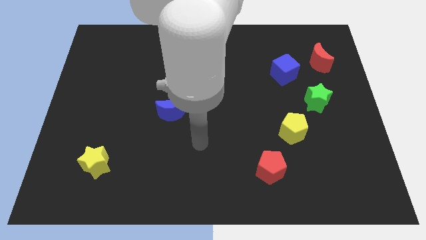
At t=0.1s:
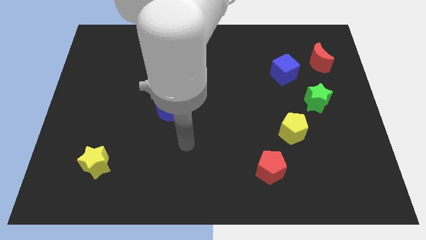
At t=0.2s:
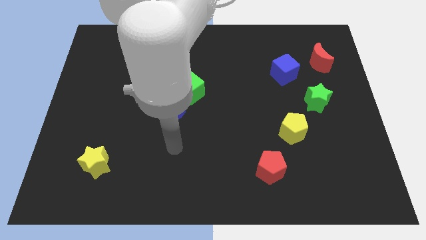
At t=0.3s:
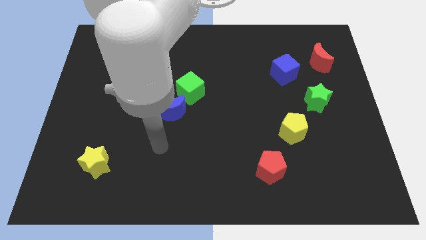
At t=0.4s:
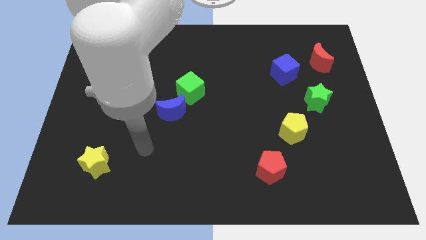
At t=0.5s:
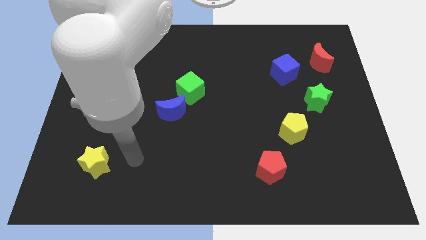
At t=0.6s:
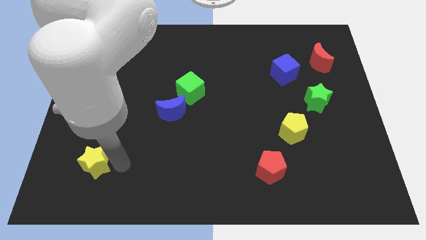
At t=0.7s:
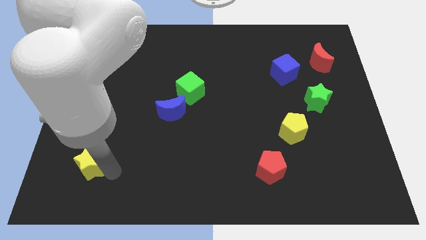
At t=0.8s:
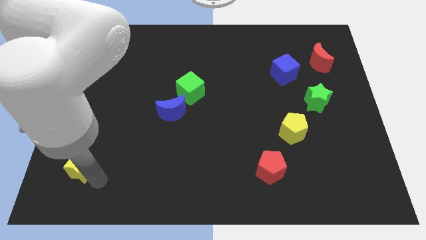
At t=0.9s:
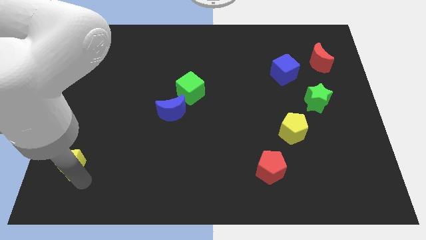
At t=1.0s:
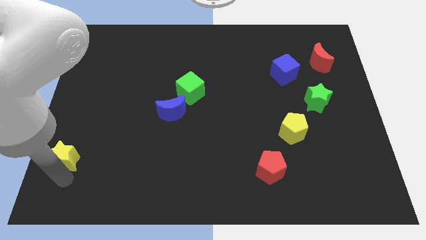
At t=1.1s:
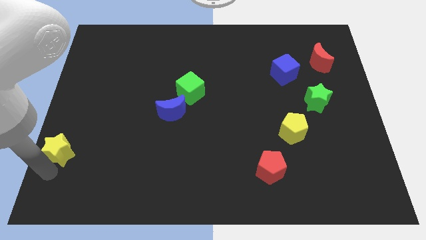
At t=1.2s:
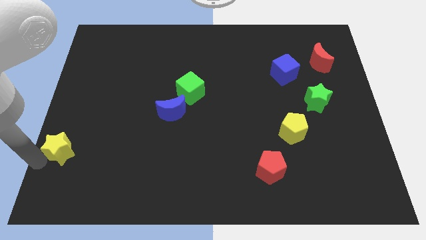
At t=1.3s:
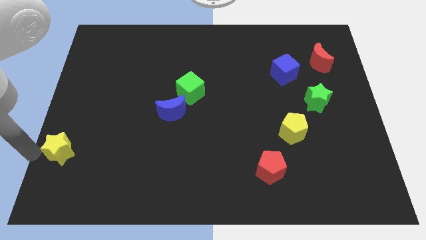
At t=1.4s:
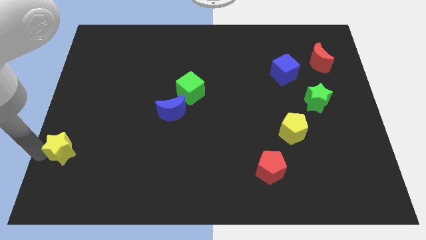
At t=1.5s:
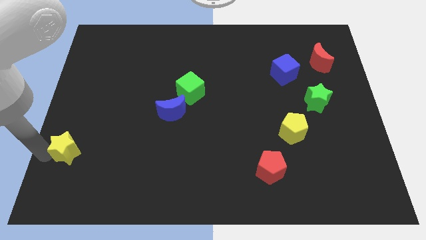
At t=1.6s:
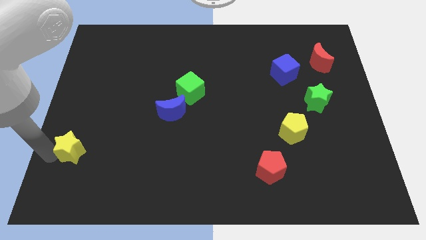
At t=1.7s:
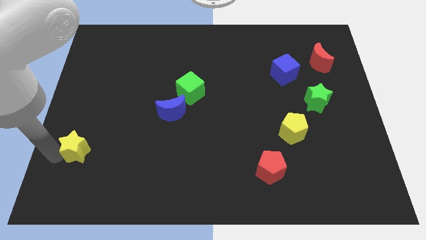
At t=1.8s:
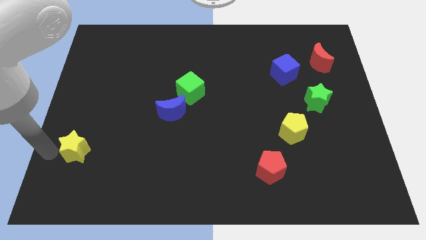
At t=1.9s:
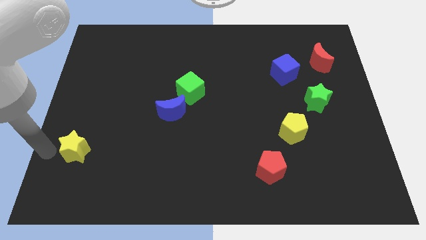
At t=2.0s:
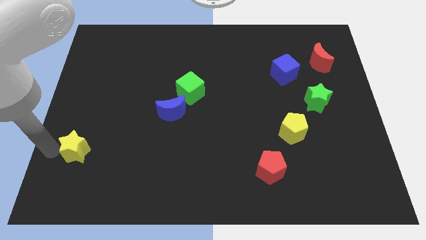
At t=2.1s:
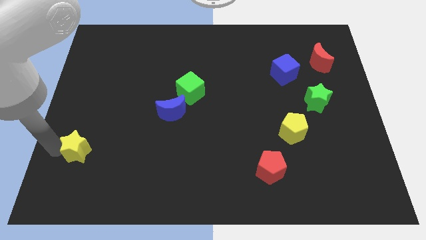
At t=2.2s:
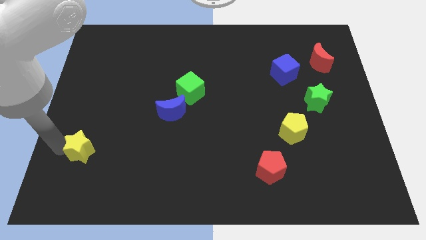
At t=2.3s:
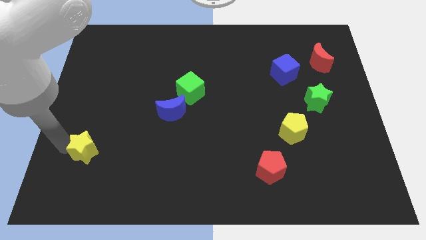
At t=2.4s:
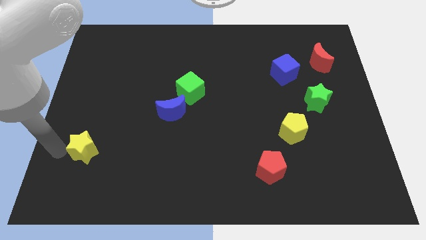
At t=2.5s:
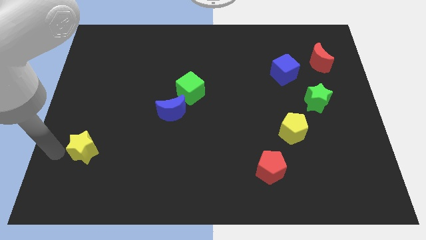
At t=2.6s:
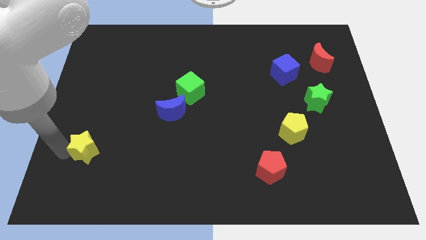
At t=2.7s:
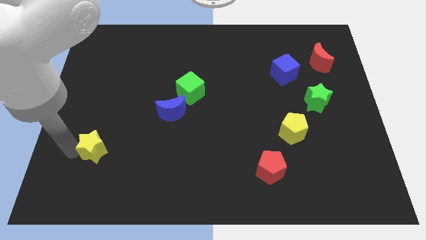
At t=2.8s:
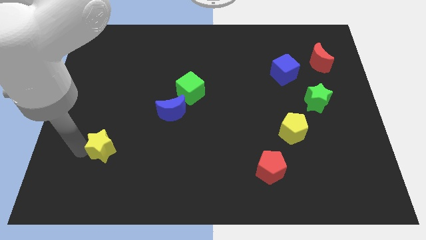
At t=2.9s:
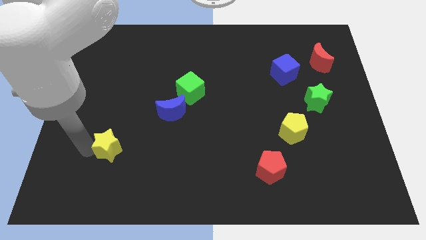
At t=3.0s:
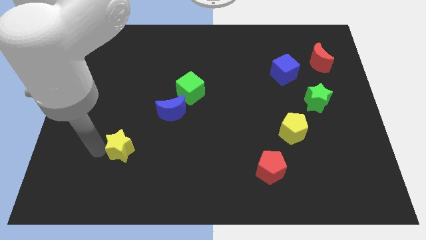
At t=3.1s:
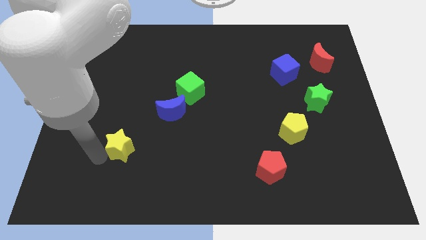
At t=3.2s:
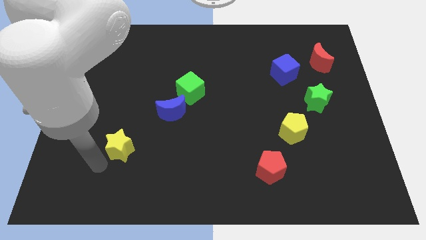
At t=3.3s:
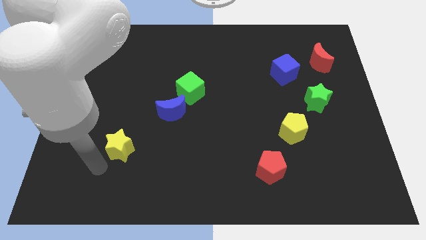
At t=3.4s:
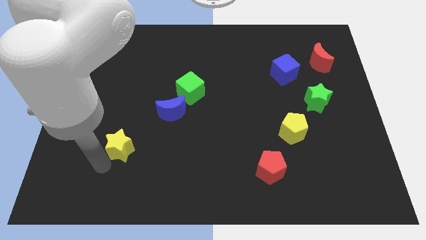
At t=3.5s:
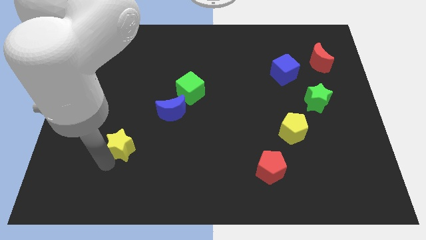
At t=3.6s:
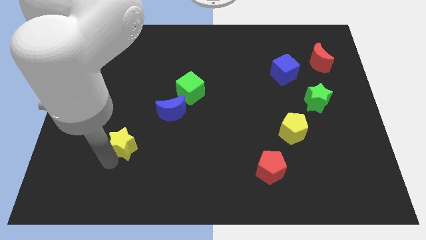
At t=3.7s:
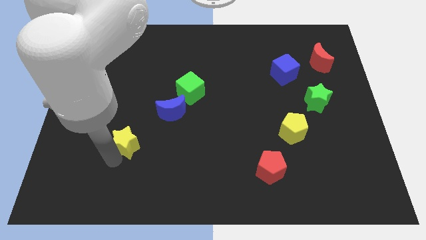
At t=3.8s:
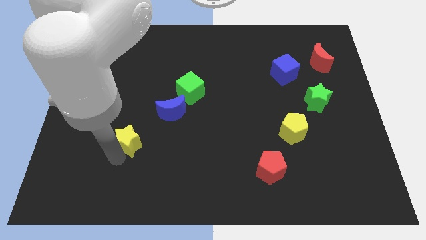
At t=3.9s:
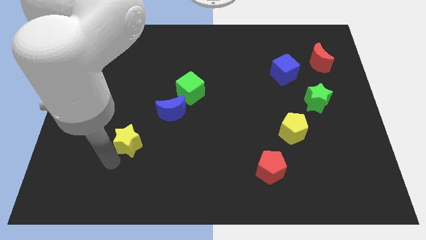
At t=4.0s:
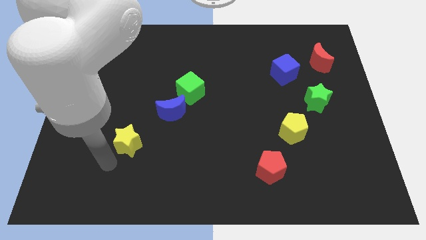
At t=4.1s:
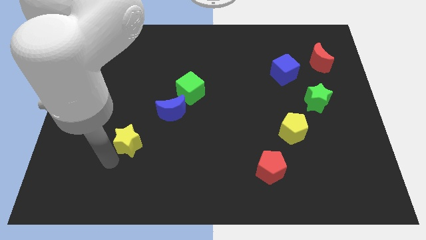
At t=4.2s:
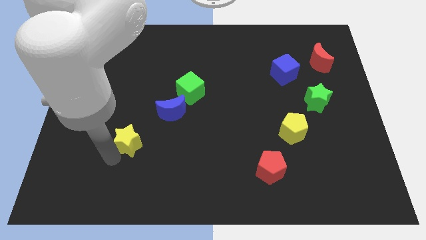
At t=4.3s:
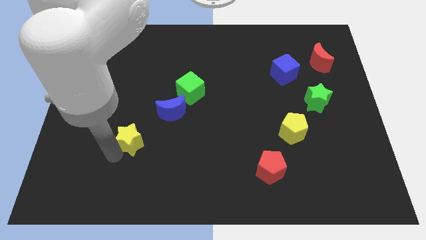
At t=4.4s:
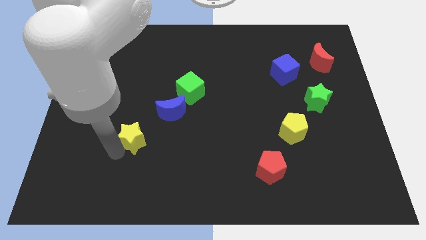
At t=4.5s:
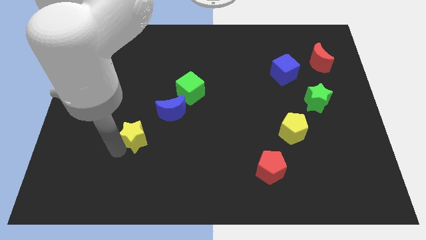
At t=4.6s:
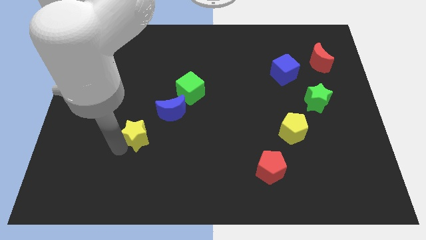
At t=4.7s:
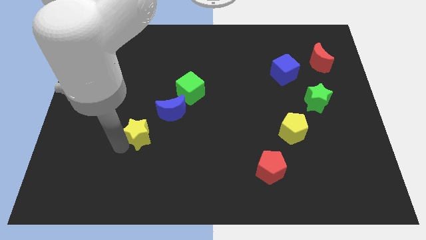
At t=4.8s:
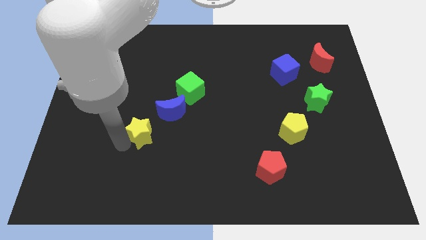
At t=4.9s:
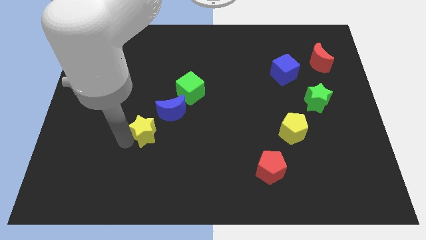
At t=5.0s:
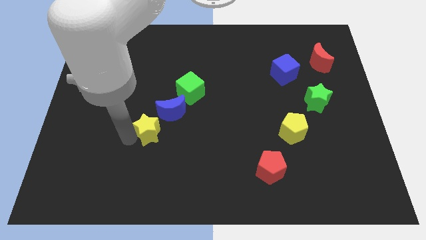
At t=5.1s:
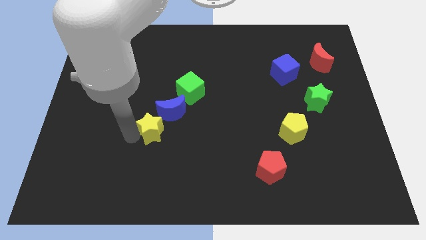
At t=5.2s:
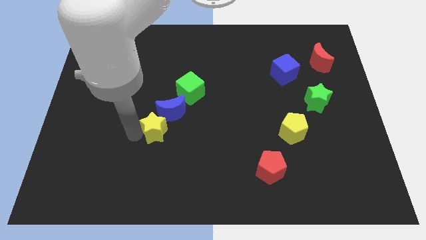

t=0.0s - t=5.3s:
move the yellow star close to the blue moon

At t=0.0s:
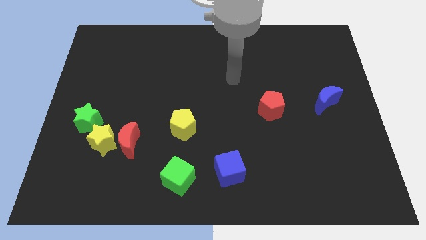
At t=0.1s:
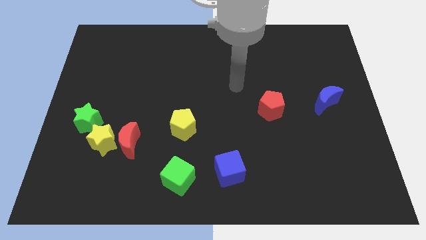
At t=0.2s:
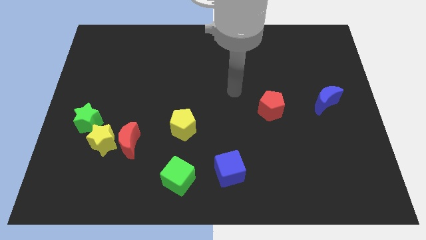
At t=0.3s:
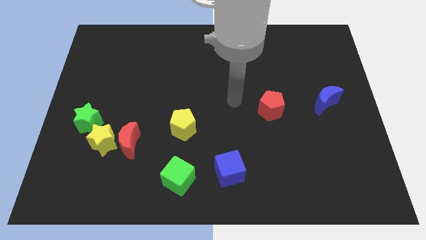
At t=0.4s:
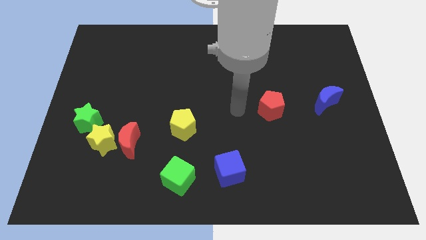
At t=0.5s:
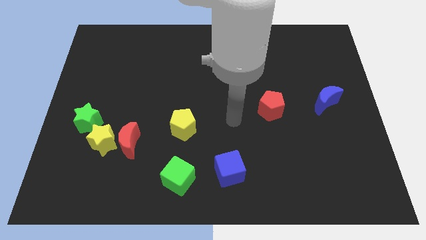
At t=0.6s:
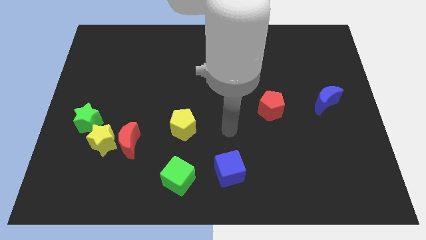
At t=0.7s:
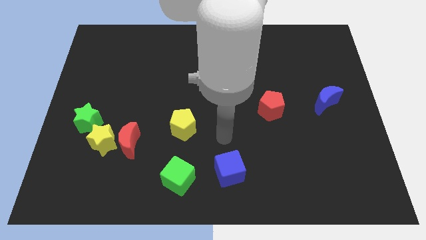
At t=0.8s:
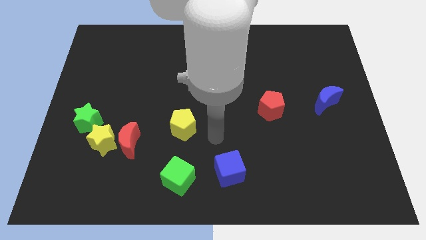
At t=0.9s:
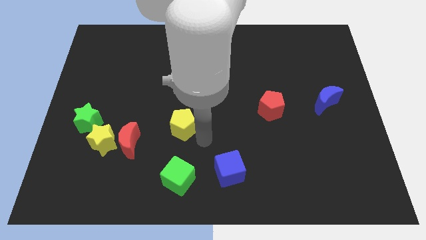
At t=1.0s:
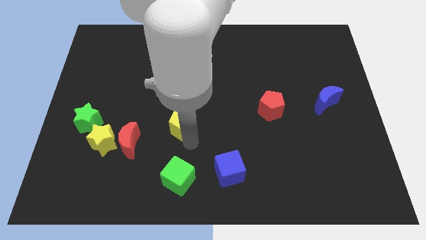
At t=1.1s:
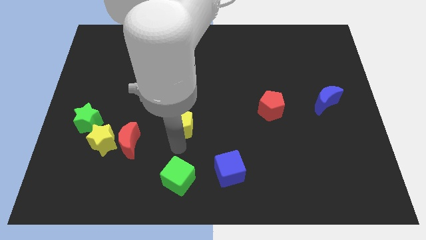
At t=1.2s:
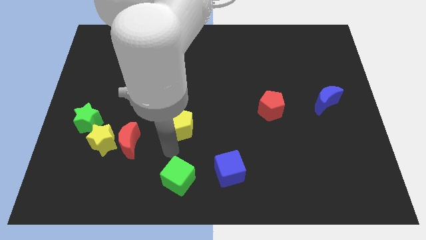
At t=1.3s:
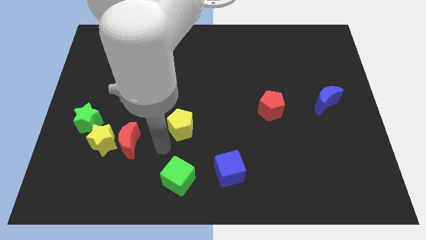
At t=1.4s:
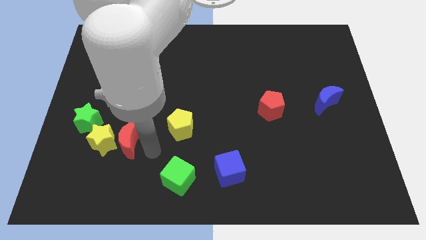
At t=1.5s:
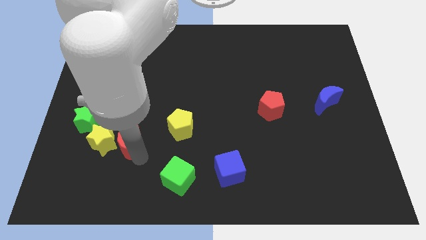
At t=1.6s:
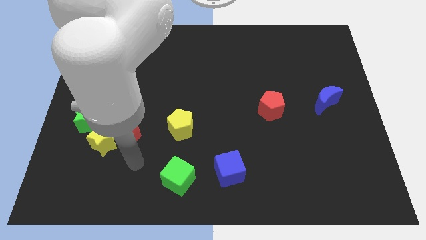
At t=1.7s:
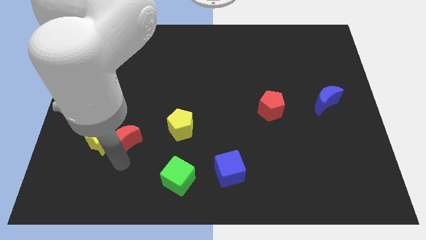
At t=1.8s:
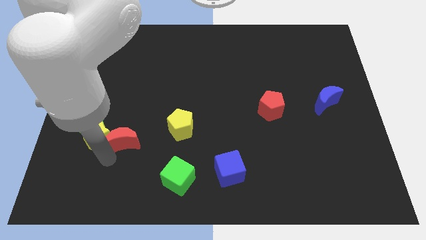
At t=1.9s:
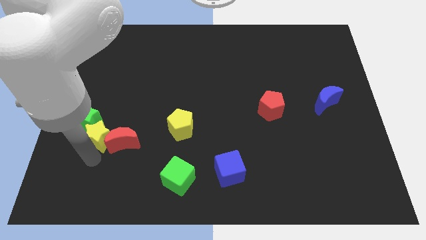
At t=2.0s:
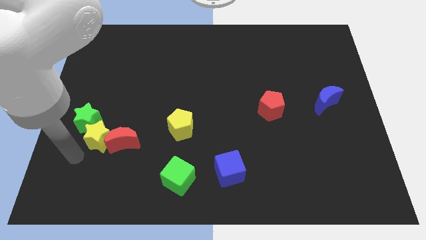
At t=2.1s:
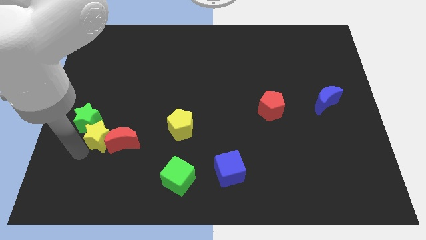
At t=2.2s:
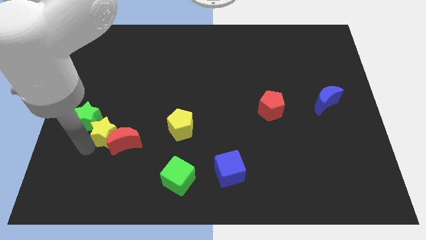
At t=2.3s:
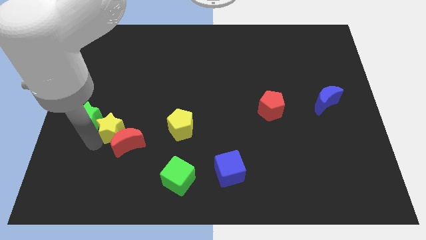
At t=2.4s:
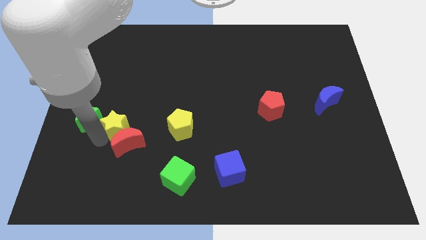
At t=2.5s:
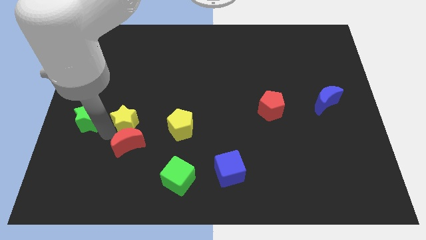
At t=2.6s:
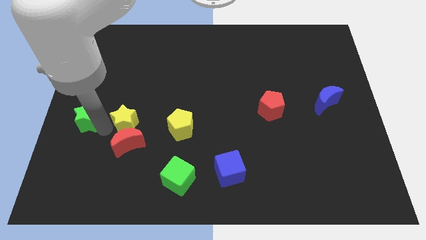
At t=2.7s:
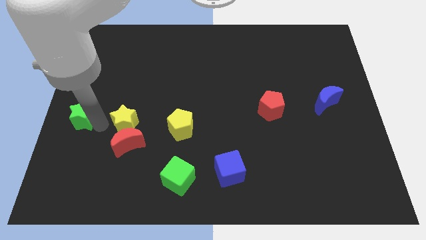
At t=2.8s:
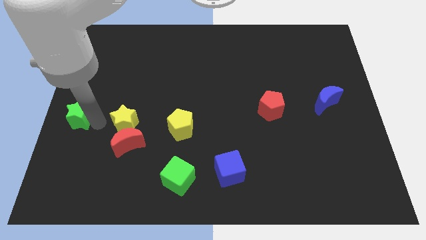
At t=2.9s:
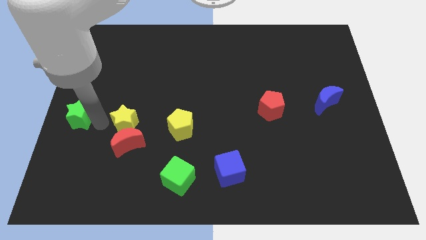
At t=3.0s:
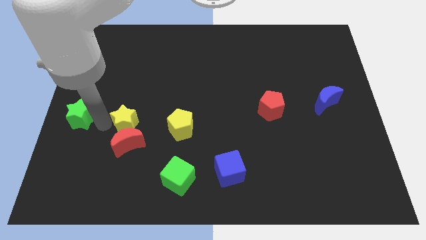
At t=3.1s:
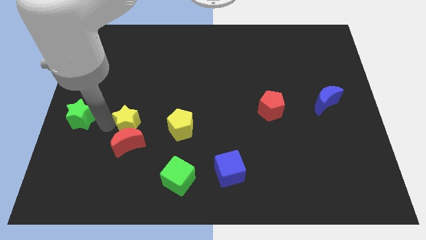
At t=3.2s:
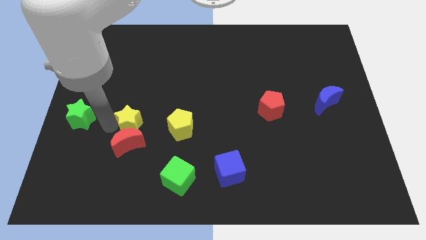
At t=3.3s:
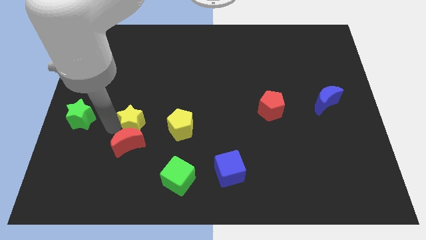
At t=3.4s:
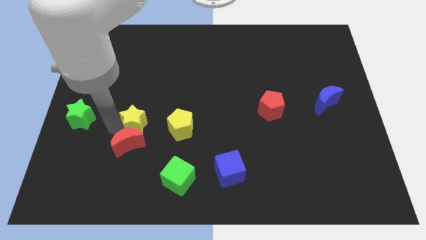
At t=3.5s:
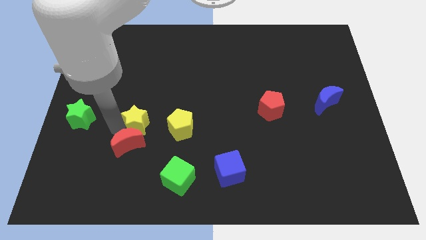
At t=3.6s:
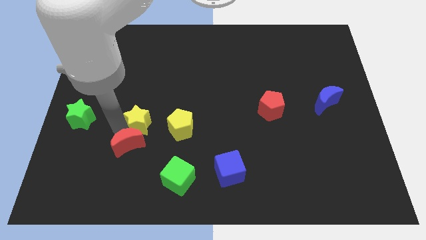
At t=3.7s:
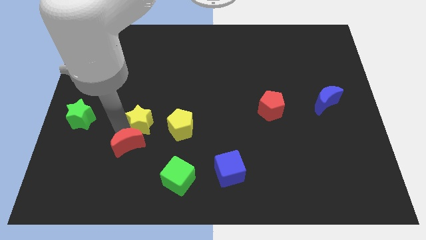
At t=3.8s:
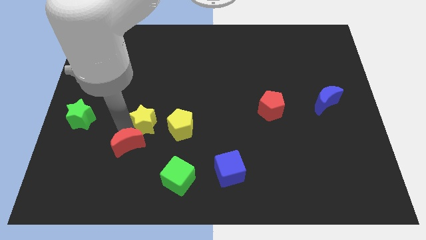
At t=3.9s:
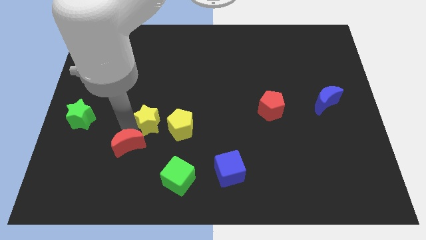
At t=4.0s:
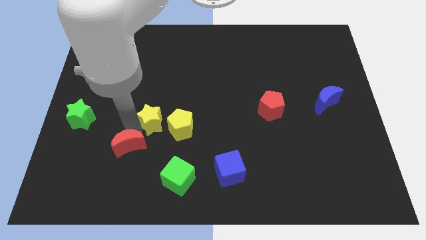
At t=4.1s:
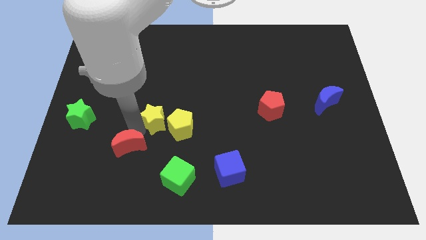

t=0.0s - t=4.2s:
slide the yellow star next to the yellow pentagon
